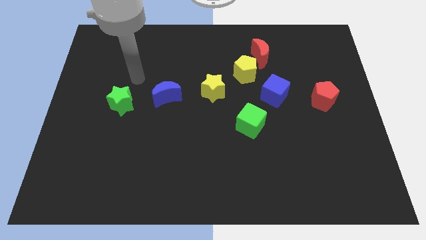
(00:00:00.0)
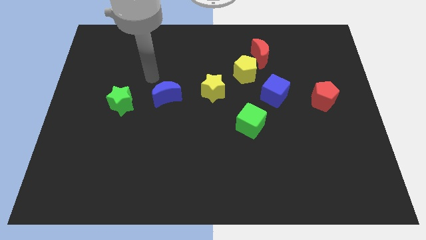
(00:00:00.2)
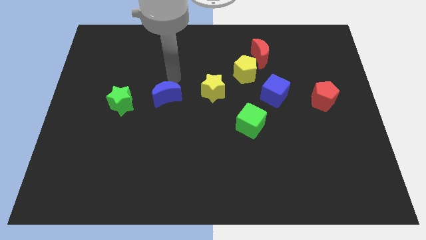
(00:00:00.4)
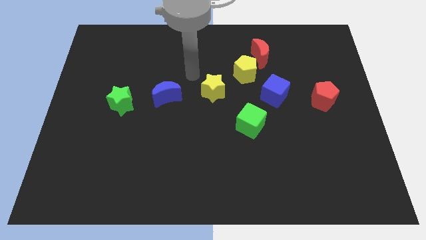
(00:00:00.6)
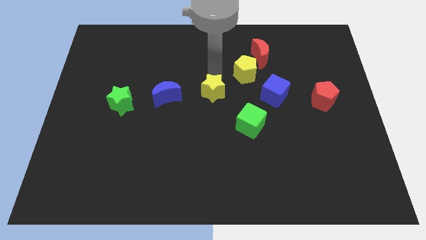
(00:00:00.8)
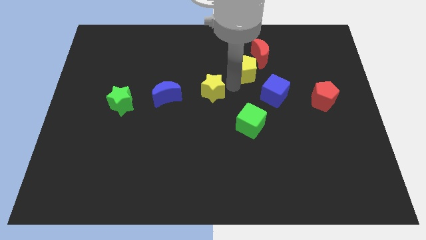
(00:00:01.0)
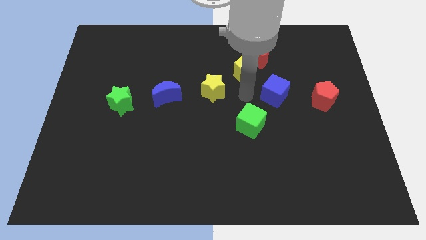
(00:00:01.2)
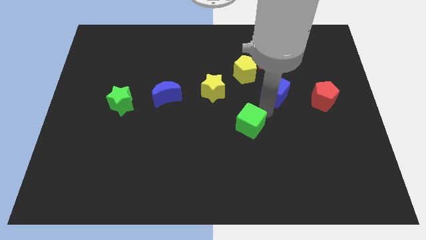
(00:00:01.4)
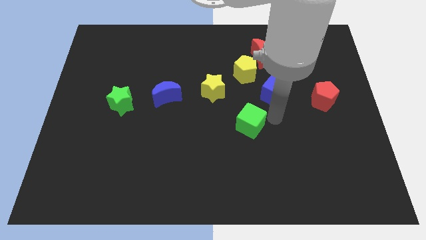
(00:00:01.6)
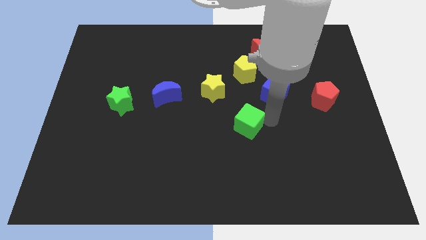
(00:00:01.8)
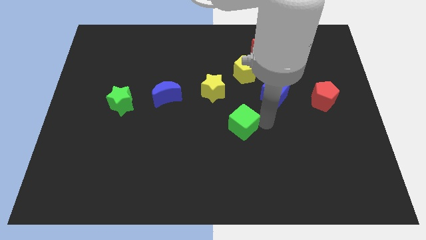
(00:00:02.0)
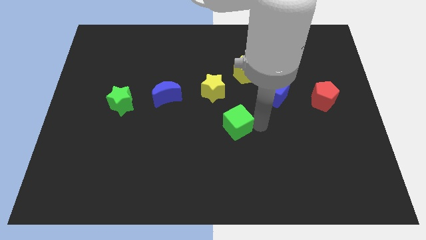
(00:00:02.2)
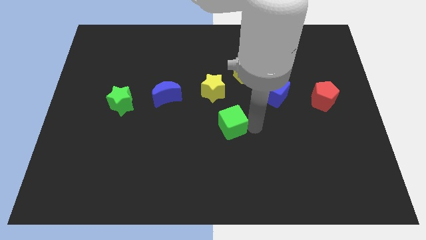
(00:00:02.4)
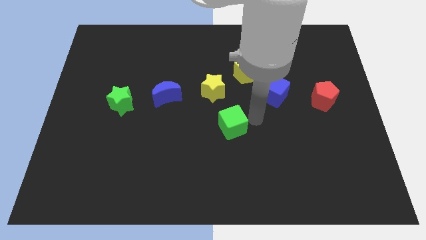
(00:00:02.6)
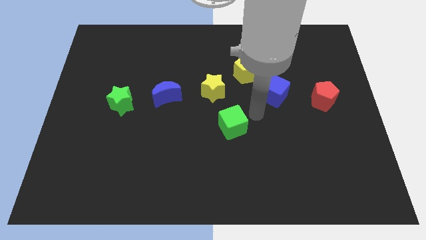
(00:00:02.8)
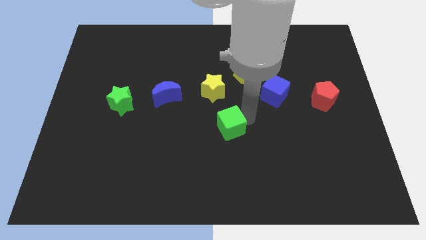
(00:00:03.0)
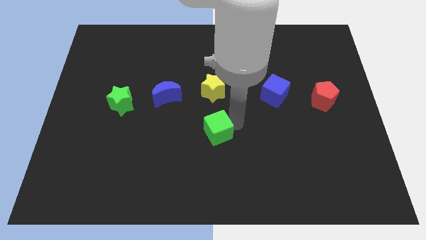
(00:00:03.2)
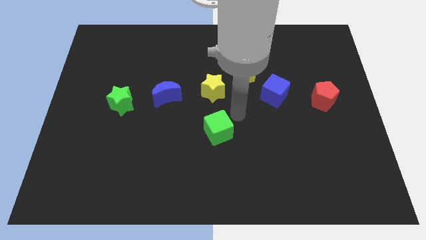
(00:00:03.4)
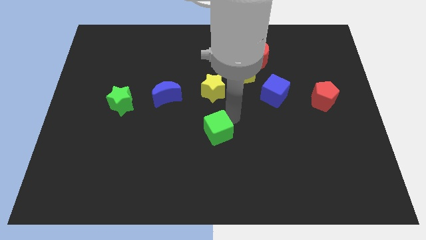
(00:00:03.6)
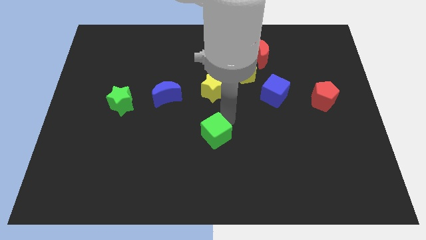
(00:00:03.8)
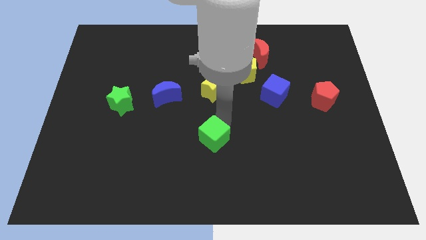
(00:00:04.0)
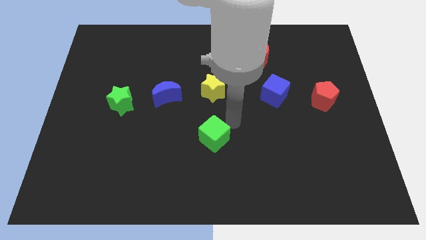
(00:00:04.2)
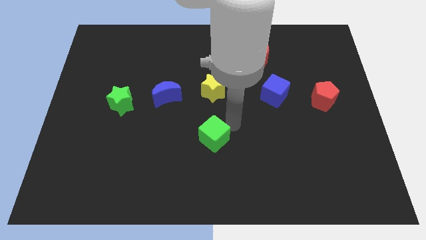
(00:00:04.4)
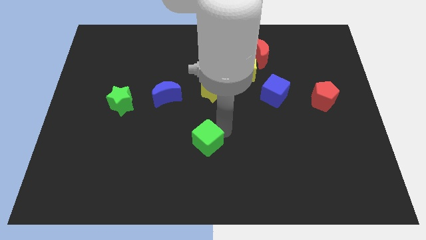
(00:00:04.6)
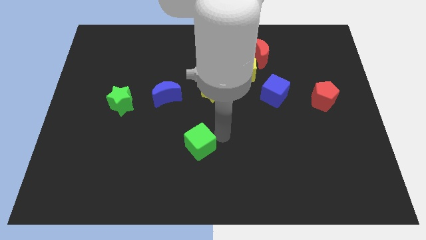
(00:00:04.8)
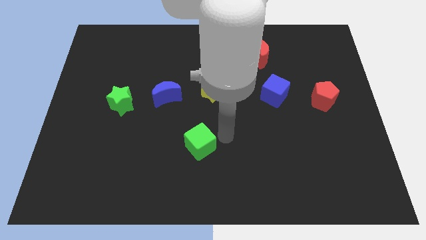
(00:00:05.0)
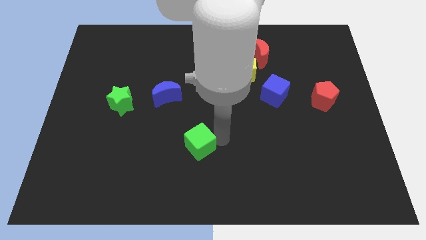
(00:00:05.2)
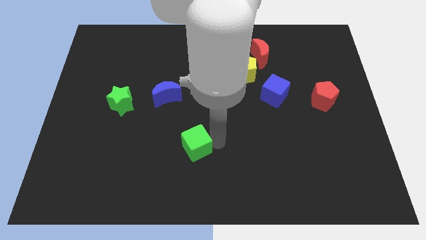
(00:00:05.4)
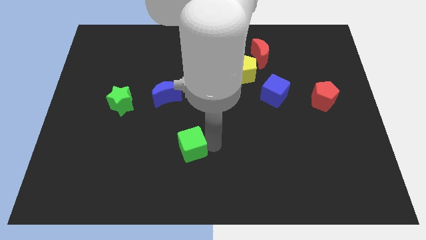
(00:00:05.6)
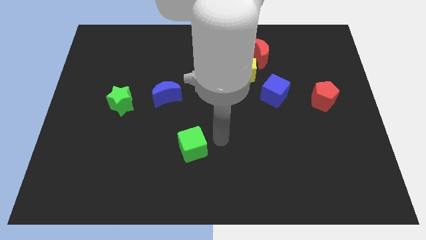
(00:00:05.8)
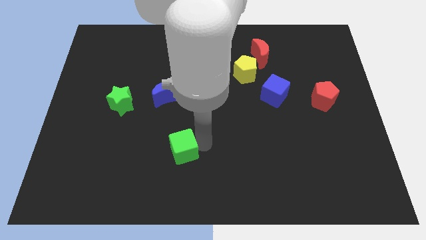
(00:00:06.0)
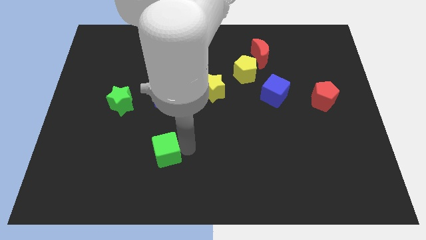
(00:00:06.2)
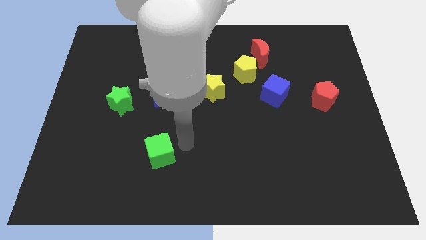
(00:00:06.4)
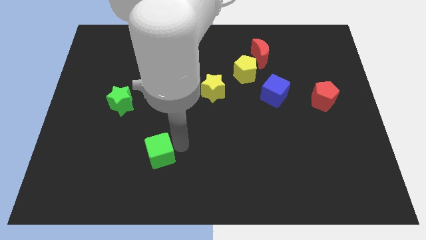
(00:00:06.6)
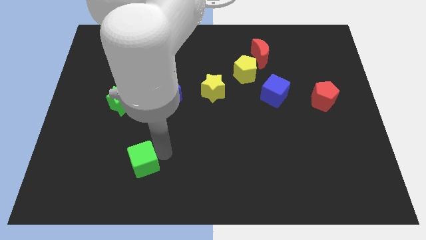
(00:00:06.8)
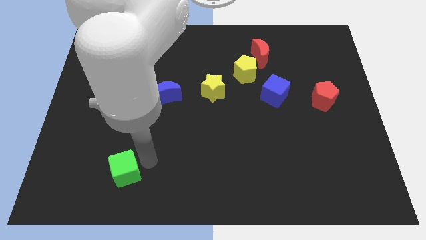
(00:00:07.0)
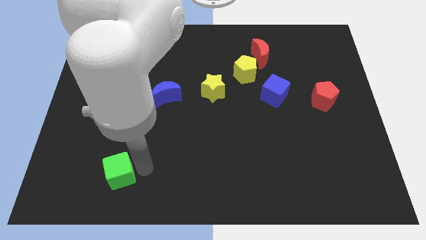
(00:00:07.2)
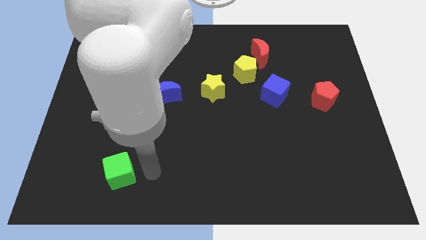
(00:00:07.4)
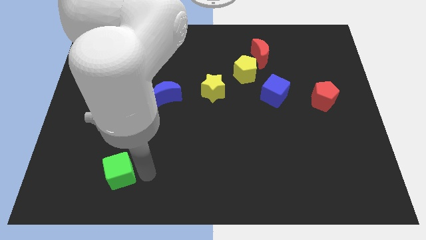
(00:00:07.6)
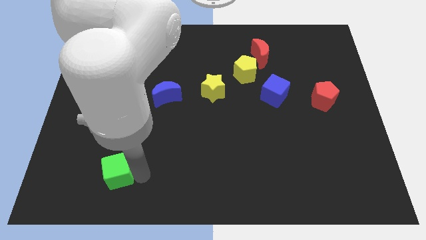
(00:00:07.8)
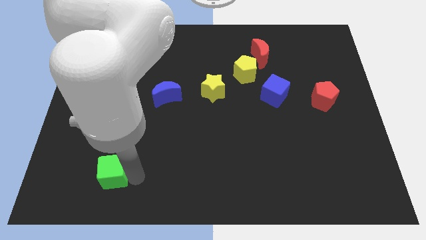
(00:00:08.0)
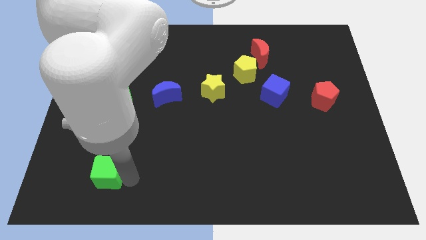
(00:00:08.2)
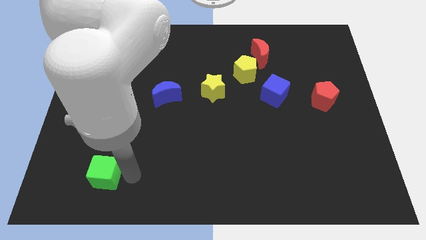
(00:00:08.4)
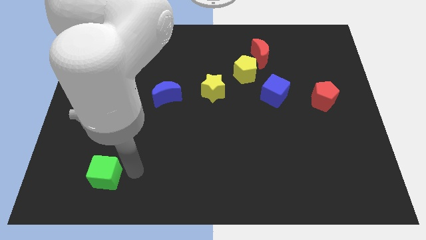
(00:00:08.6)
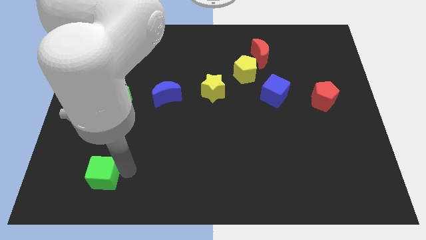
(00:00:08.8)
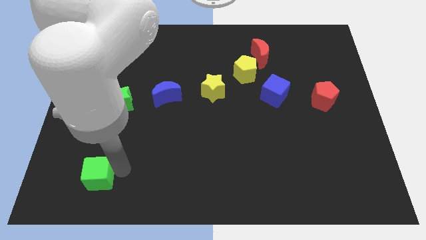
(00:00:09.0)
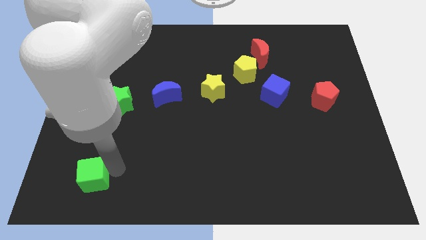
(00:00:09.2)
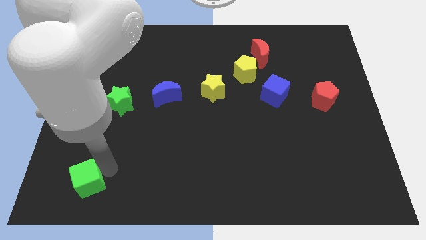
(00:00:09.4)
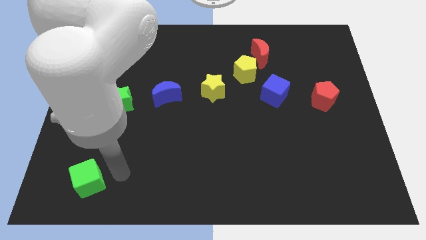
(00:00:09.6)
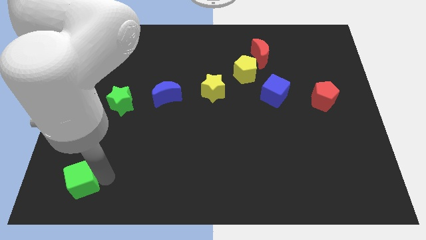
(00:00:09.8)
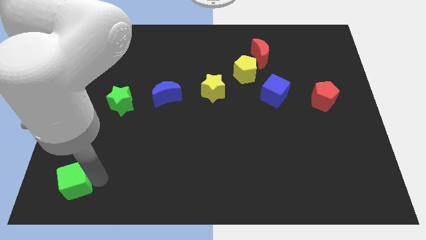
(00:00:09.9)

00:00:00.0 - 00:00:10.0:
put the green cube to the bottom left corner

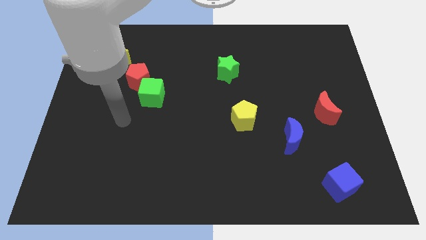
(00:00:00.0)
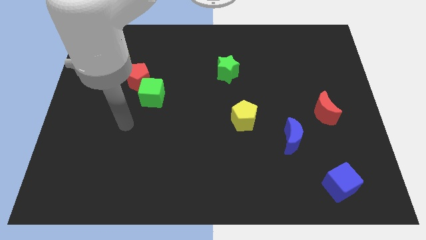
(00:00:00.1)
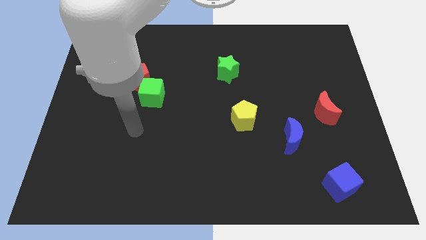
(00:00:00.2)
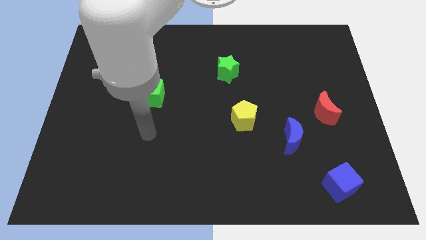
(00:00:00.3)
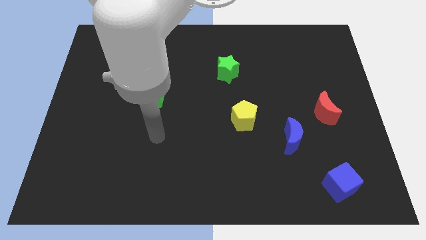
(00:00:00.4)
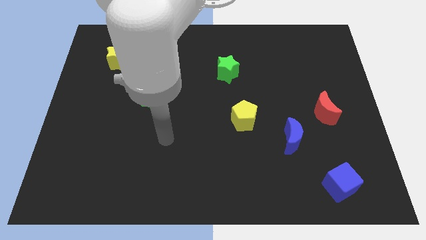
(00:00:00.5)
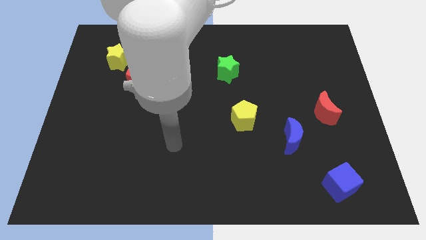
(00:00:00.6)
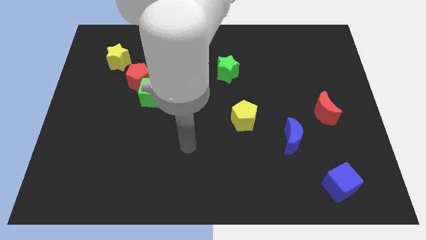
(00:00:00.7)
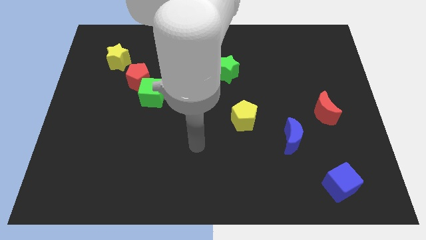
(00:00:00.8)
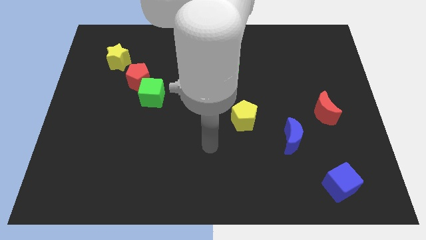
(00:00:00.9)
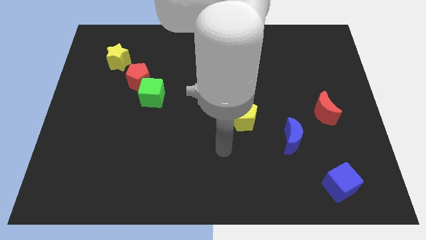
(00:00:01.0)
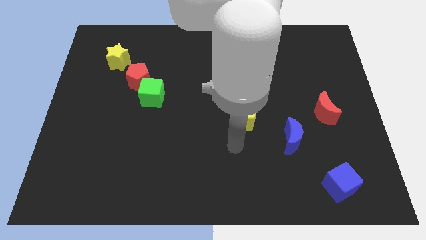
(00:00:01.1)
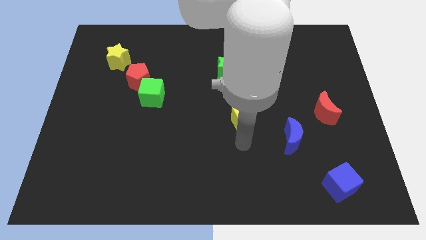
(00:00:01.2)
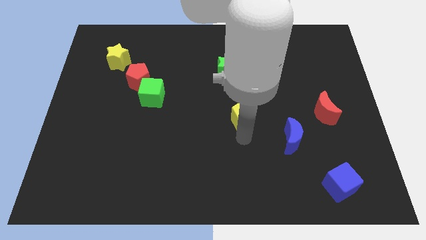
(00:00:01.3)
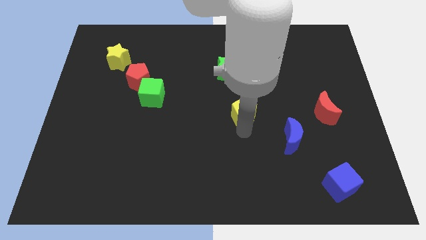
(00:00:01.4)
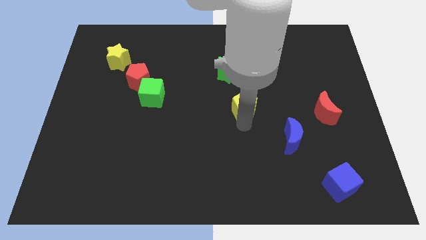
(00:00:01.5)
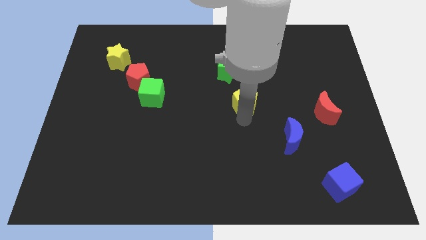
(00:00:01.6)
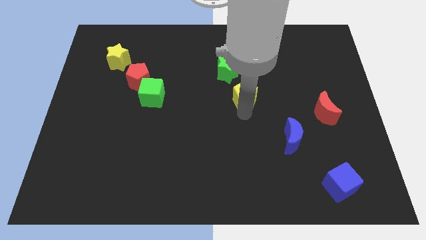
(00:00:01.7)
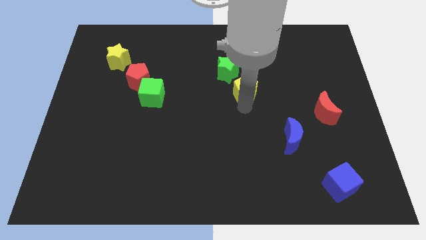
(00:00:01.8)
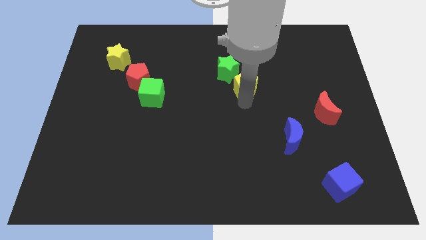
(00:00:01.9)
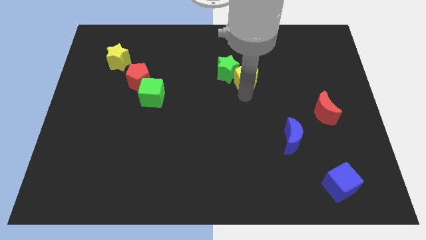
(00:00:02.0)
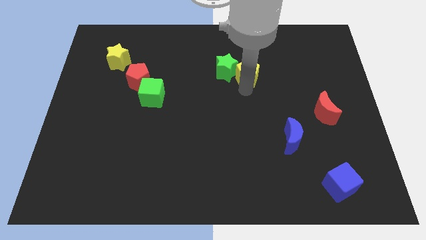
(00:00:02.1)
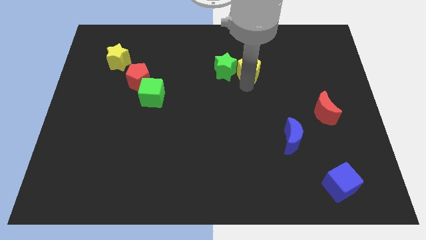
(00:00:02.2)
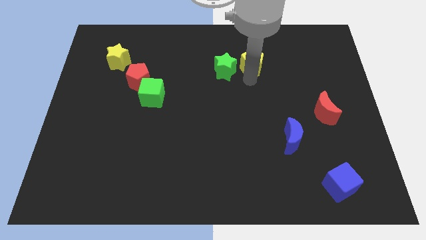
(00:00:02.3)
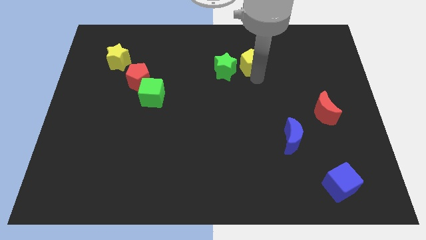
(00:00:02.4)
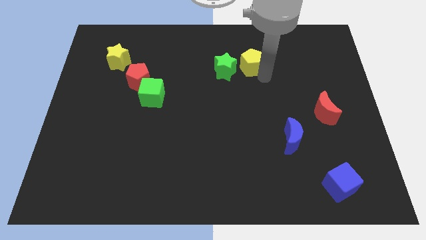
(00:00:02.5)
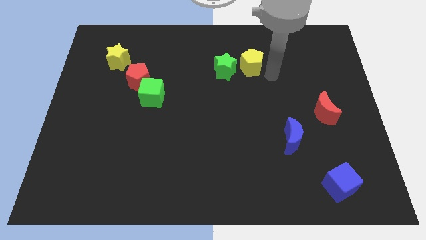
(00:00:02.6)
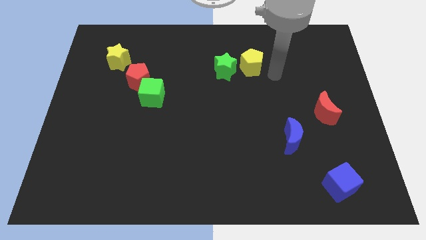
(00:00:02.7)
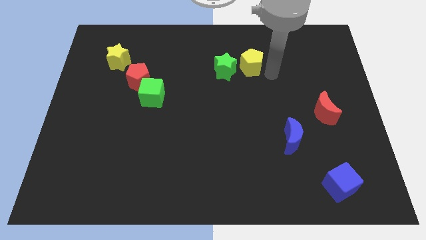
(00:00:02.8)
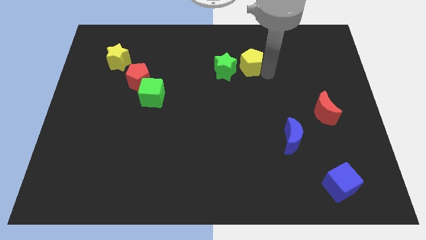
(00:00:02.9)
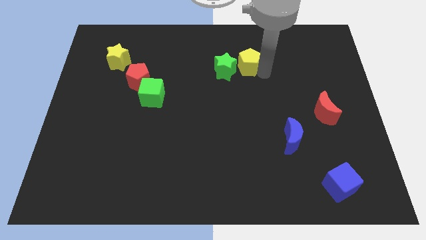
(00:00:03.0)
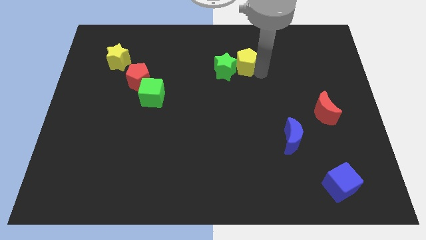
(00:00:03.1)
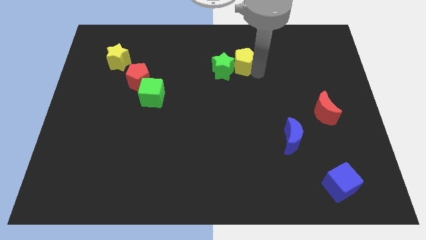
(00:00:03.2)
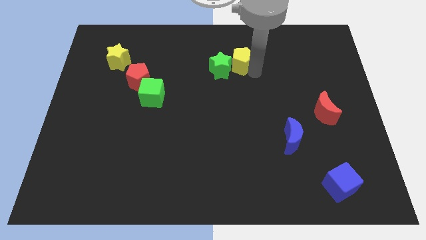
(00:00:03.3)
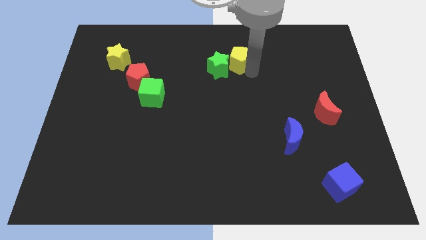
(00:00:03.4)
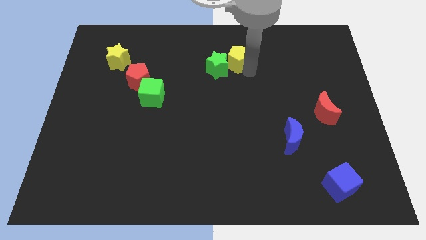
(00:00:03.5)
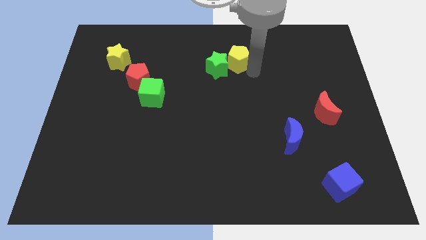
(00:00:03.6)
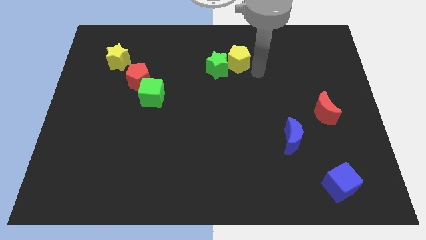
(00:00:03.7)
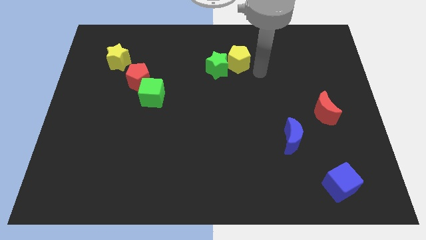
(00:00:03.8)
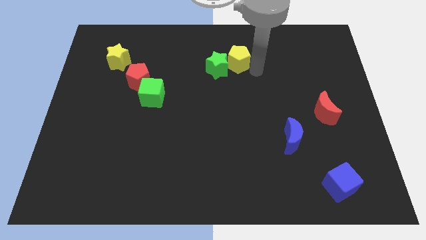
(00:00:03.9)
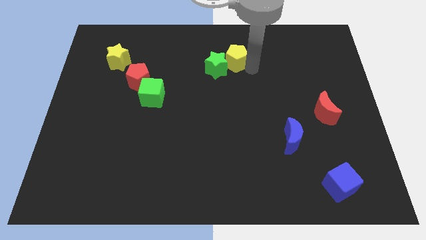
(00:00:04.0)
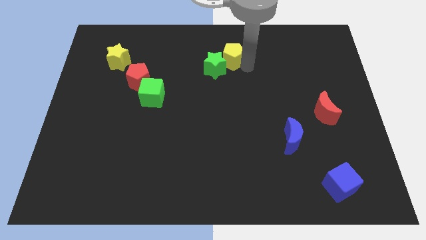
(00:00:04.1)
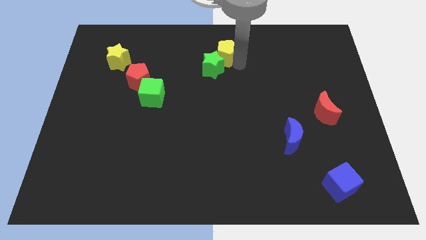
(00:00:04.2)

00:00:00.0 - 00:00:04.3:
slide the yellow pentagon to the top
